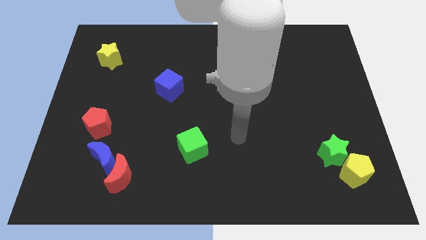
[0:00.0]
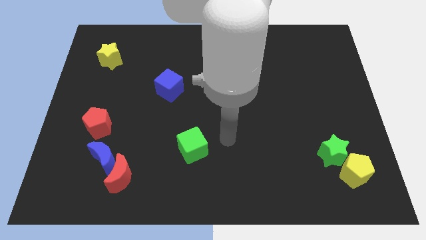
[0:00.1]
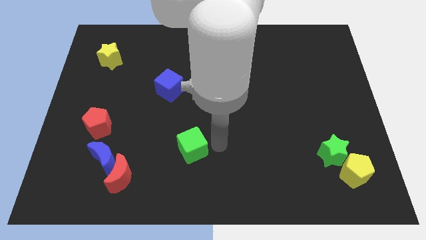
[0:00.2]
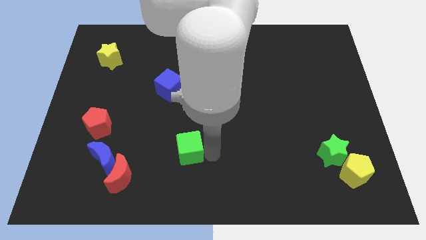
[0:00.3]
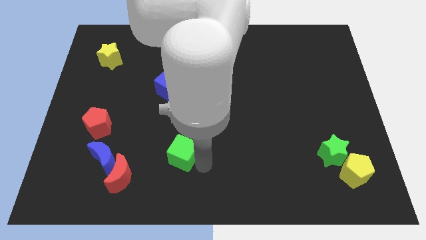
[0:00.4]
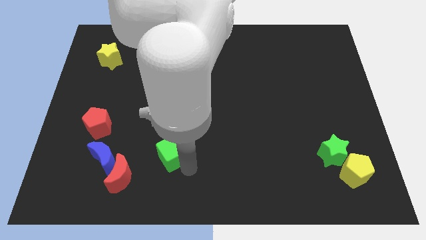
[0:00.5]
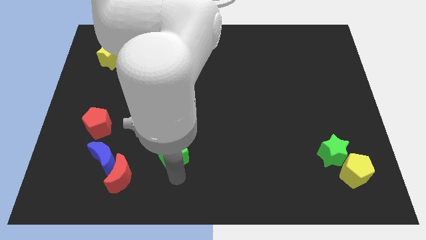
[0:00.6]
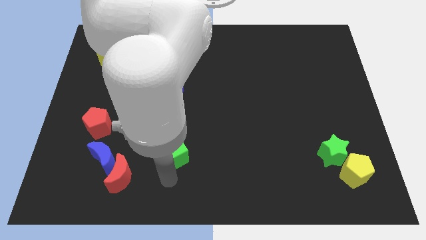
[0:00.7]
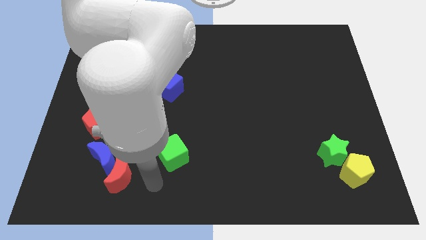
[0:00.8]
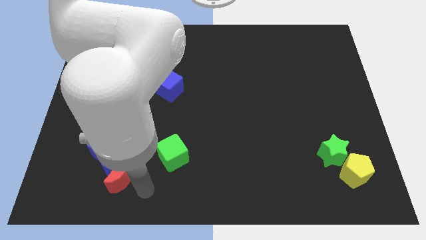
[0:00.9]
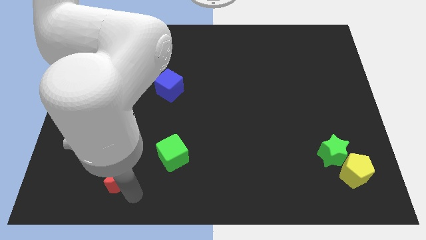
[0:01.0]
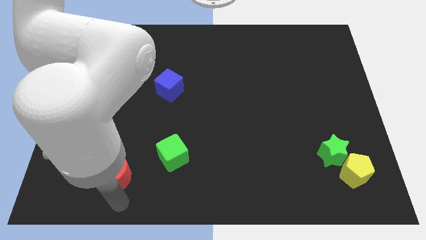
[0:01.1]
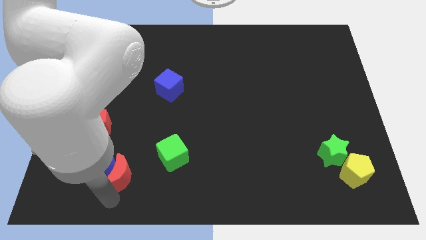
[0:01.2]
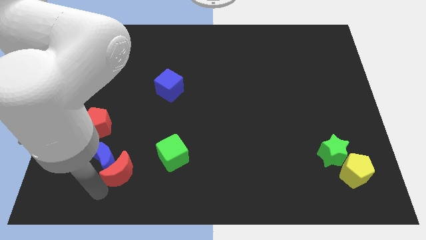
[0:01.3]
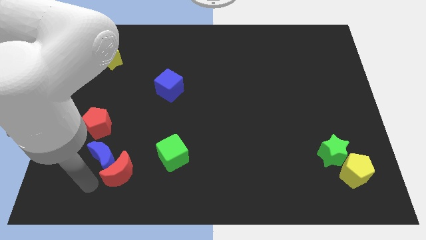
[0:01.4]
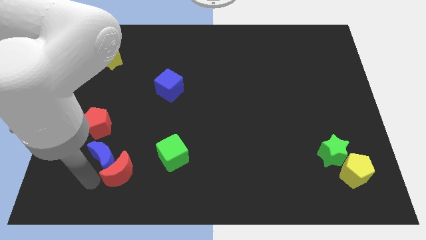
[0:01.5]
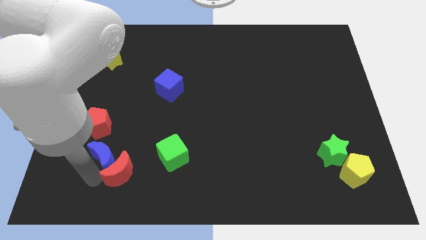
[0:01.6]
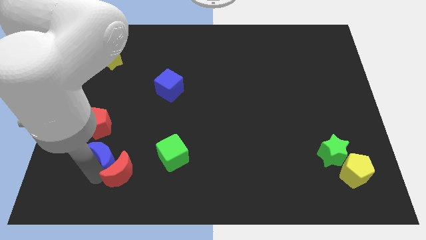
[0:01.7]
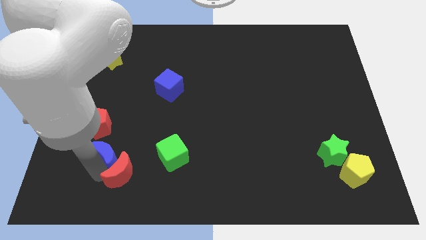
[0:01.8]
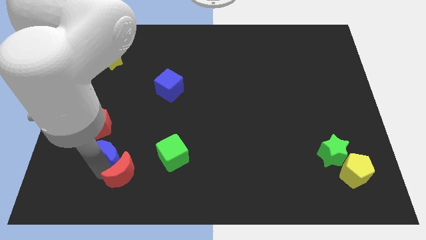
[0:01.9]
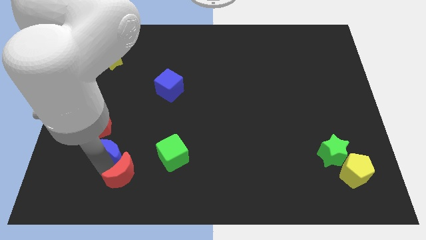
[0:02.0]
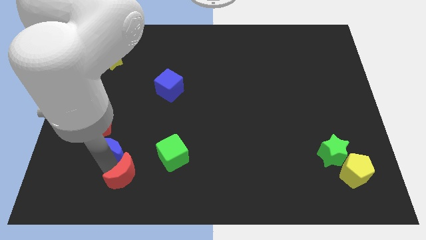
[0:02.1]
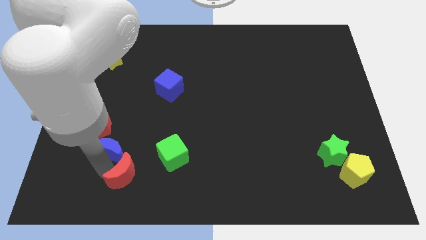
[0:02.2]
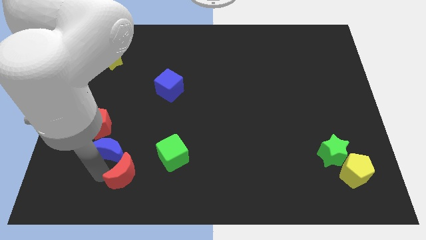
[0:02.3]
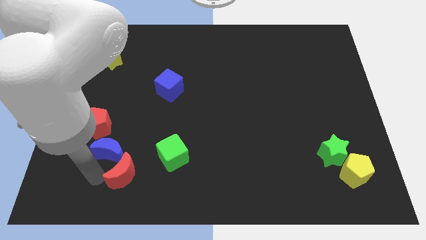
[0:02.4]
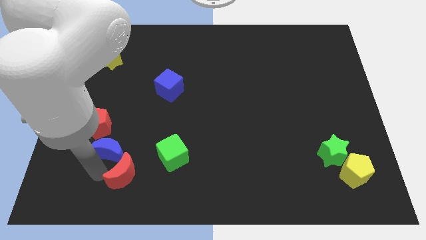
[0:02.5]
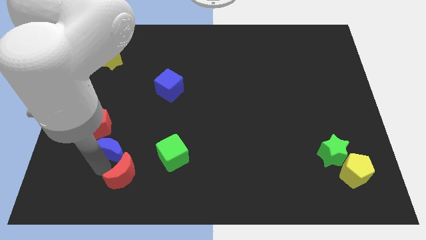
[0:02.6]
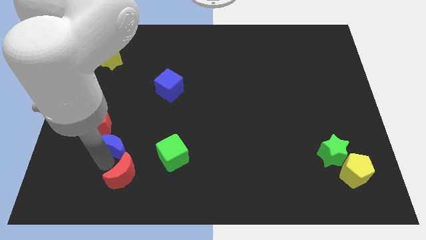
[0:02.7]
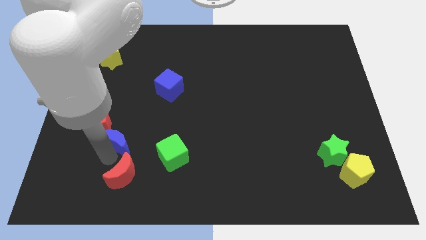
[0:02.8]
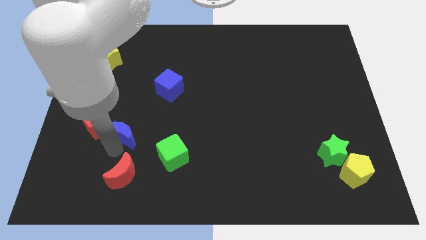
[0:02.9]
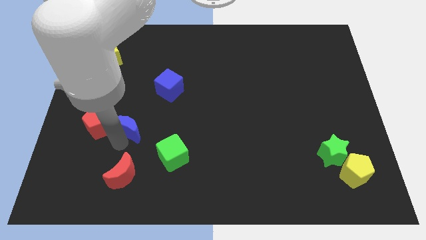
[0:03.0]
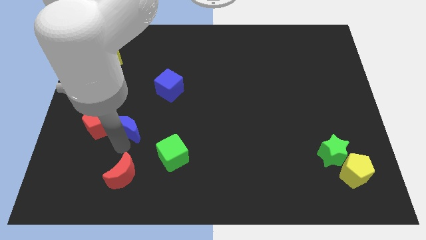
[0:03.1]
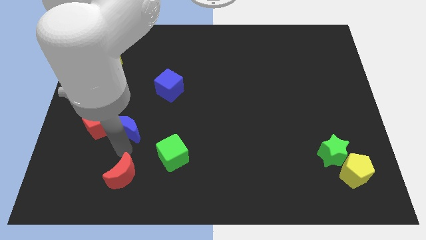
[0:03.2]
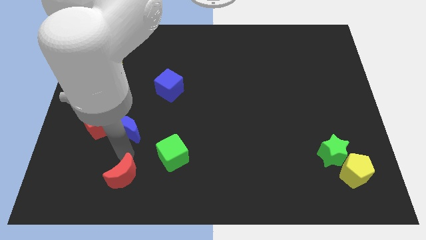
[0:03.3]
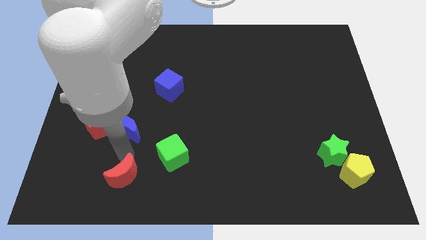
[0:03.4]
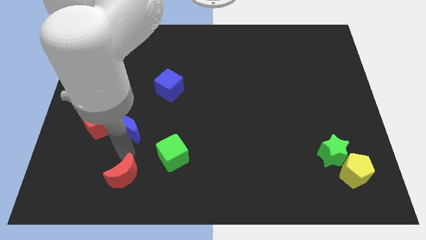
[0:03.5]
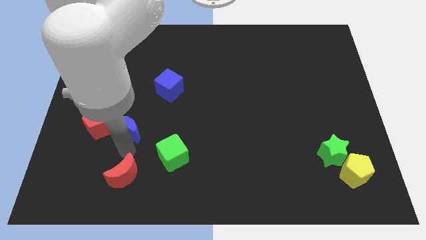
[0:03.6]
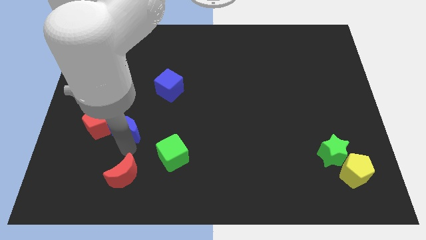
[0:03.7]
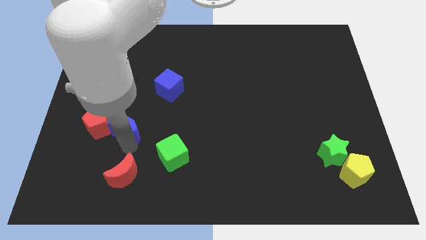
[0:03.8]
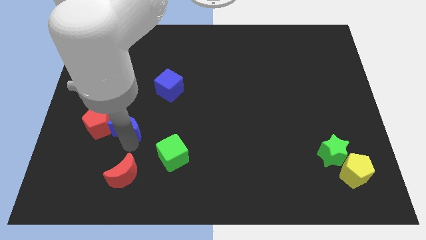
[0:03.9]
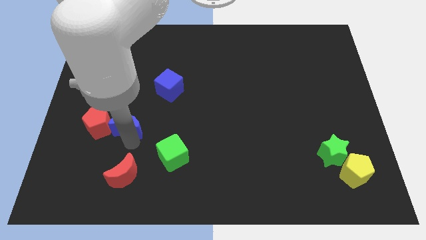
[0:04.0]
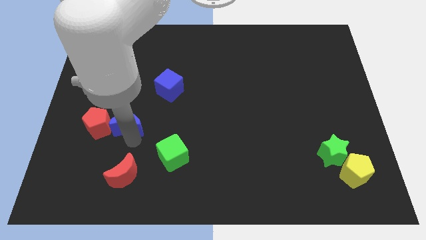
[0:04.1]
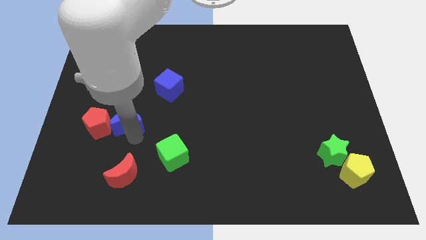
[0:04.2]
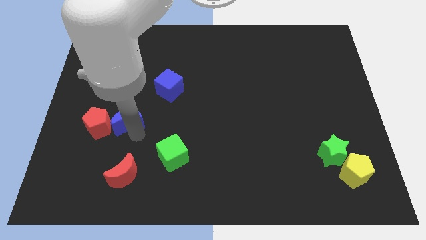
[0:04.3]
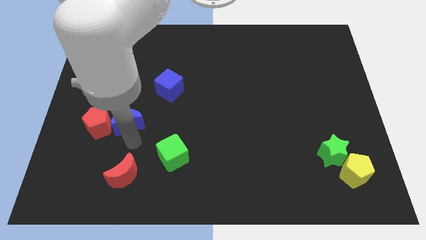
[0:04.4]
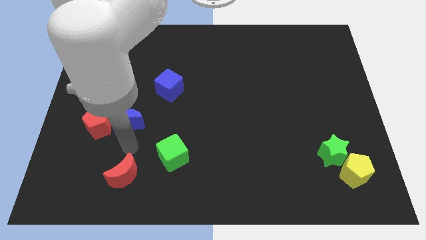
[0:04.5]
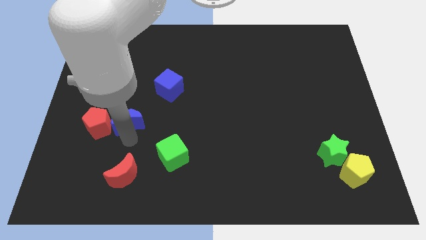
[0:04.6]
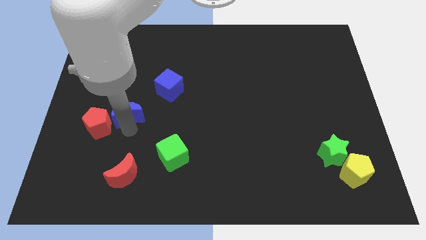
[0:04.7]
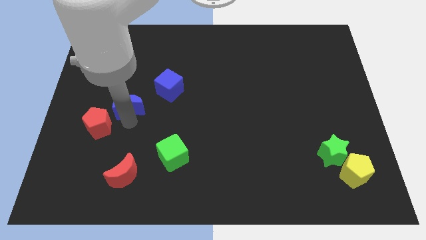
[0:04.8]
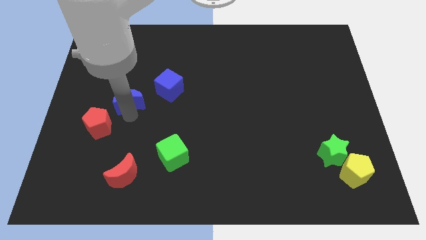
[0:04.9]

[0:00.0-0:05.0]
put the blue moon to the left of the blue cube

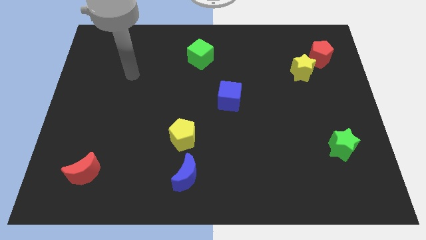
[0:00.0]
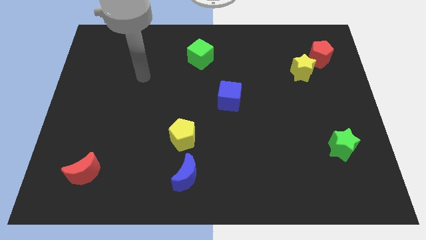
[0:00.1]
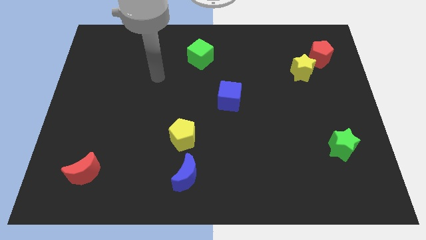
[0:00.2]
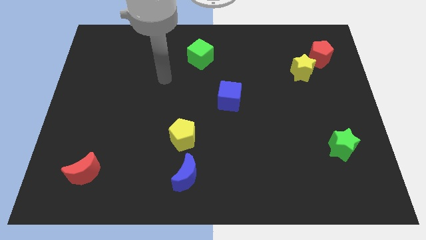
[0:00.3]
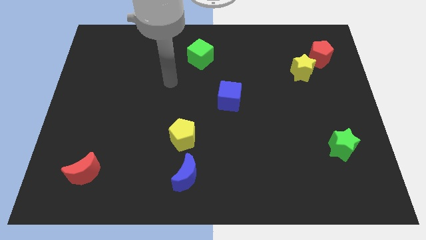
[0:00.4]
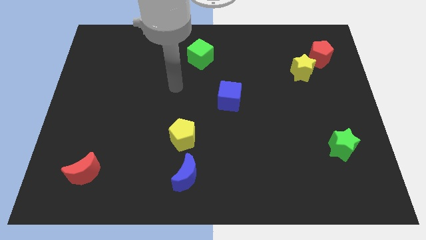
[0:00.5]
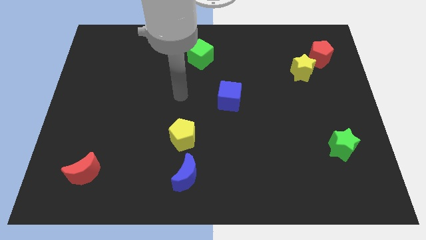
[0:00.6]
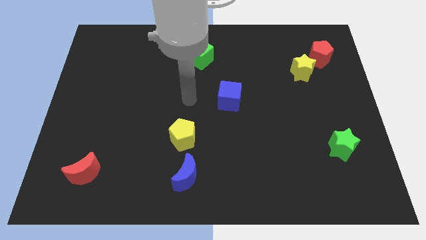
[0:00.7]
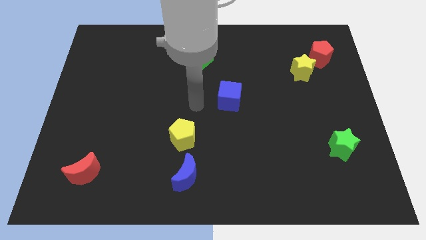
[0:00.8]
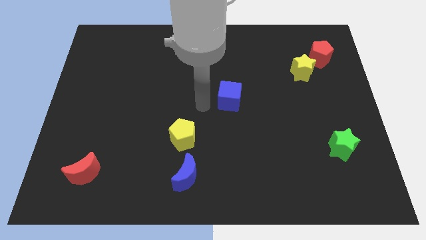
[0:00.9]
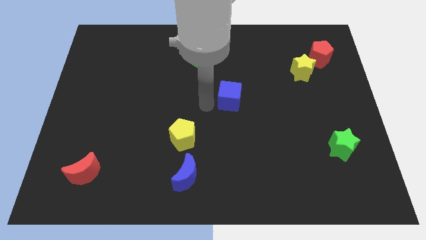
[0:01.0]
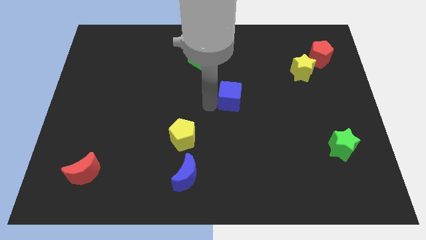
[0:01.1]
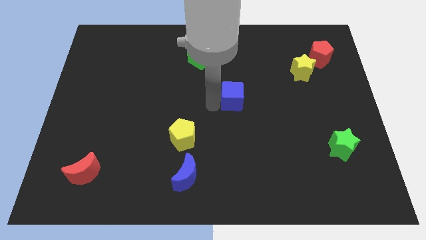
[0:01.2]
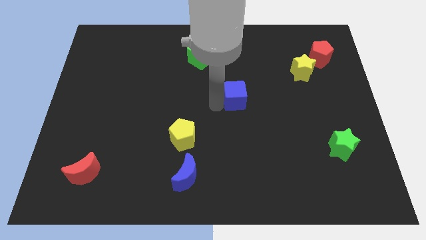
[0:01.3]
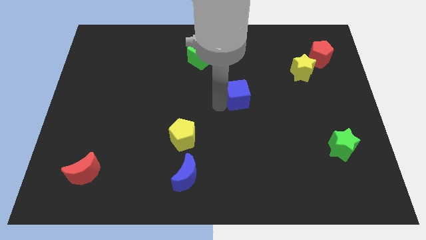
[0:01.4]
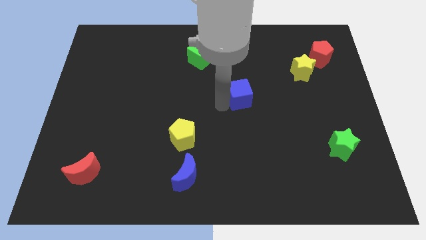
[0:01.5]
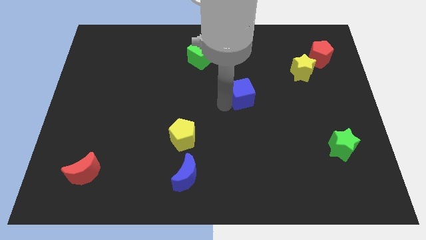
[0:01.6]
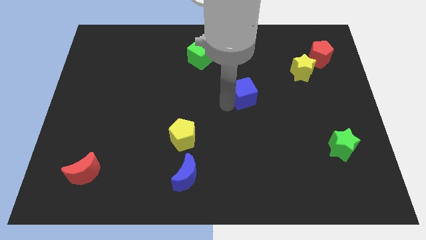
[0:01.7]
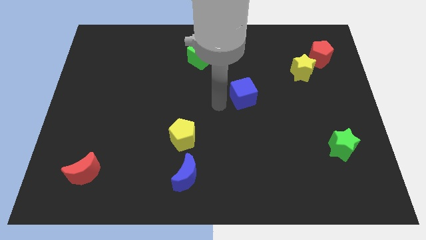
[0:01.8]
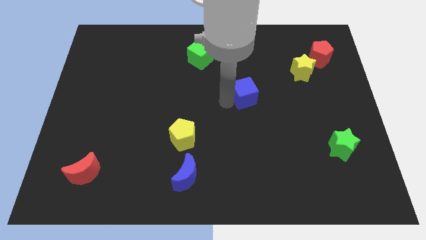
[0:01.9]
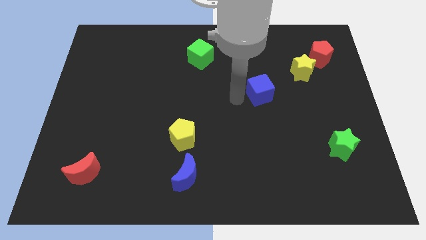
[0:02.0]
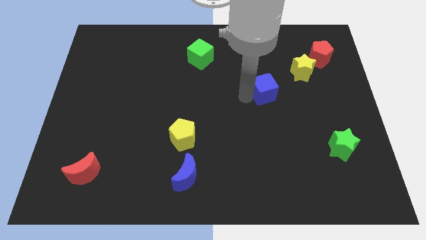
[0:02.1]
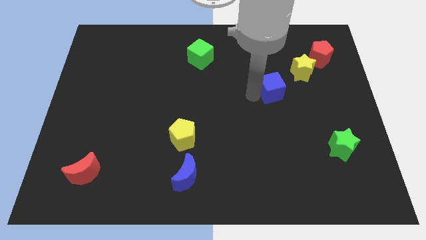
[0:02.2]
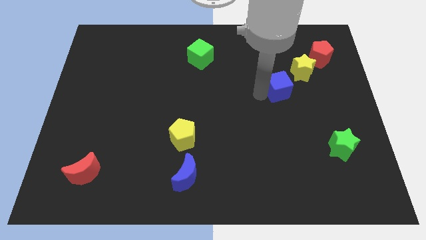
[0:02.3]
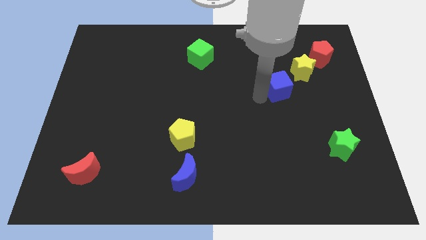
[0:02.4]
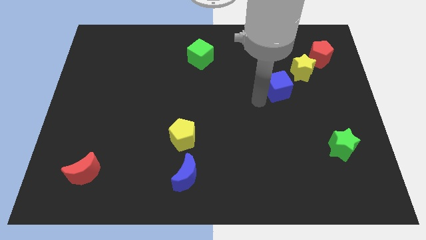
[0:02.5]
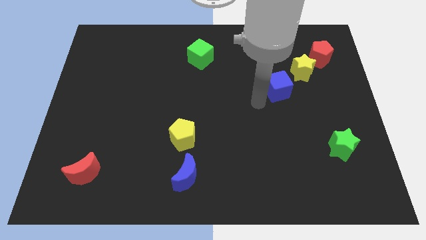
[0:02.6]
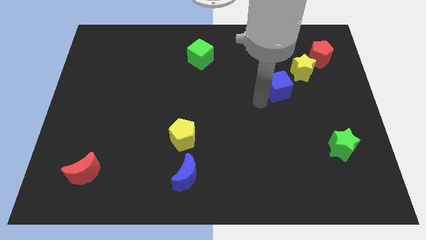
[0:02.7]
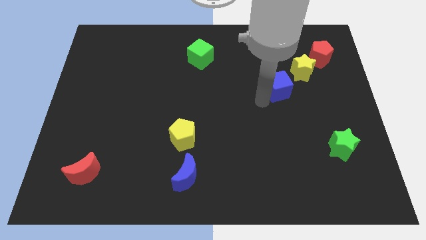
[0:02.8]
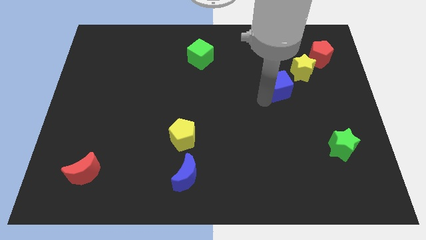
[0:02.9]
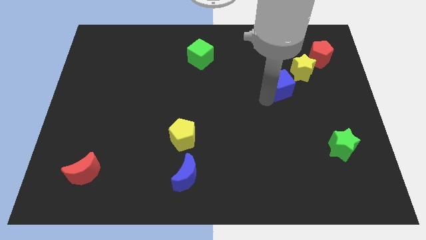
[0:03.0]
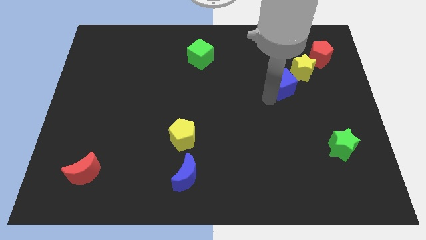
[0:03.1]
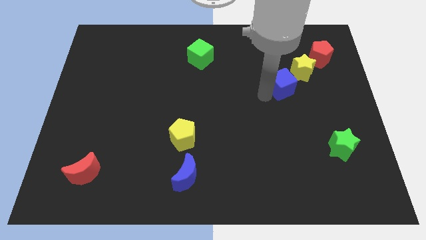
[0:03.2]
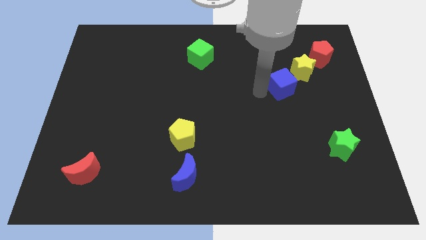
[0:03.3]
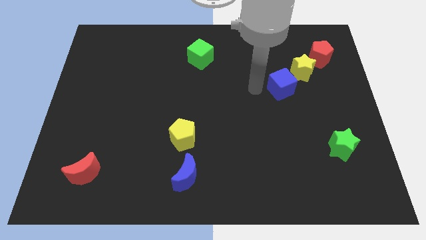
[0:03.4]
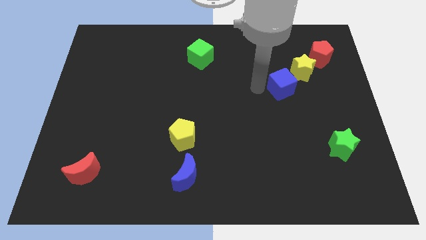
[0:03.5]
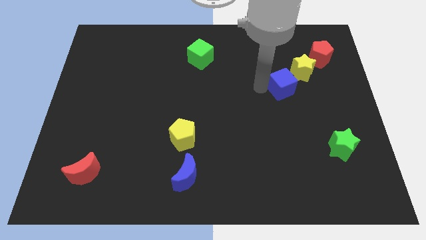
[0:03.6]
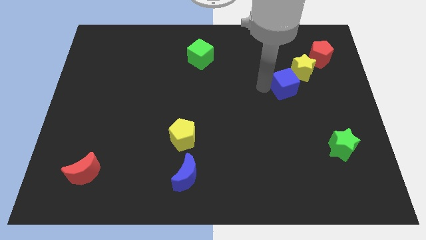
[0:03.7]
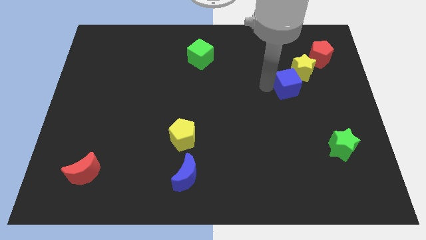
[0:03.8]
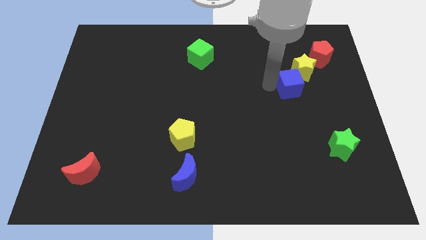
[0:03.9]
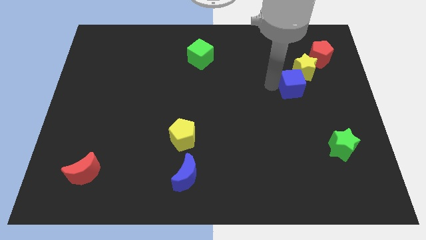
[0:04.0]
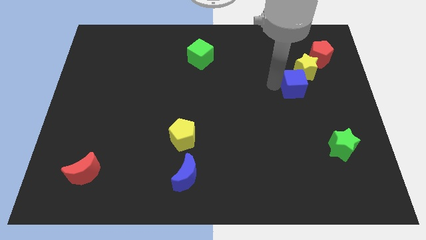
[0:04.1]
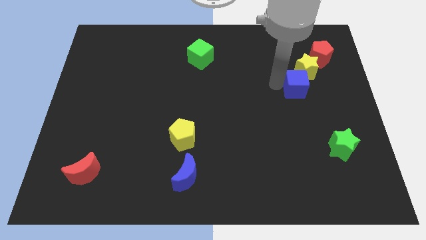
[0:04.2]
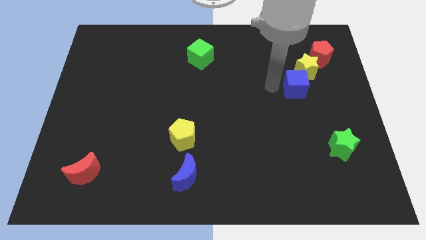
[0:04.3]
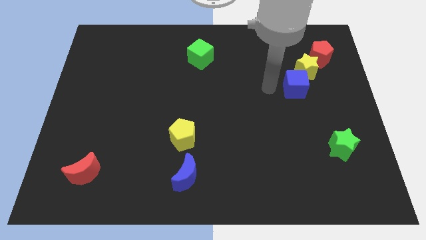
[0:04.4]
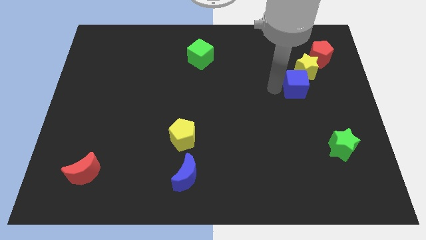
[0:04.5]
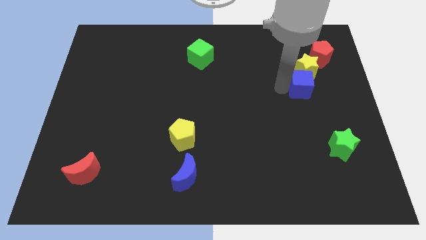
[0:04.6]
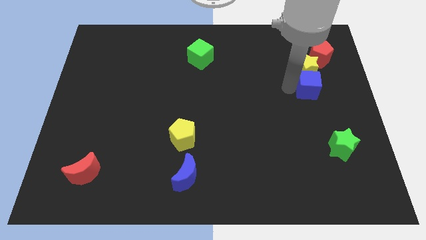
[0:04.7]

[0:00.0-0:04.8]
put the blue cube below the red pentagon
